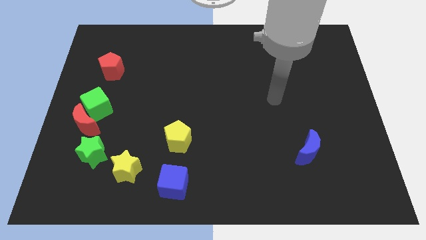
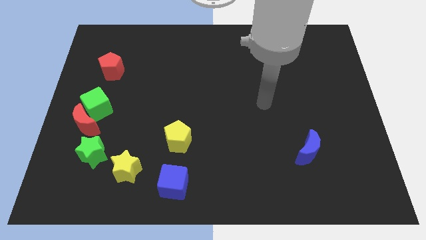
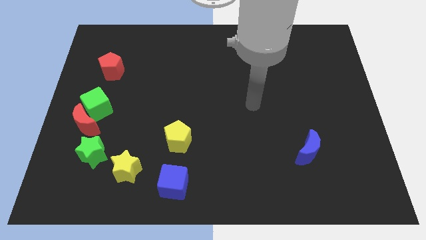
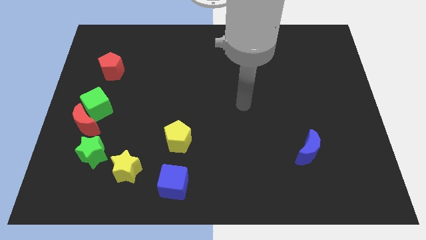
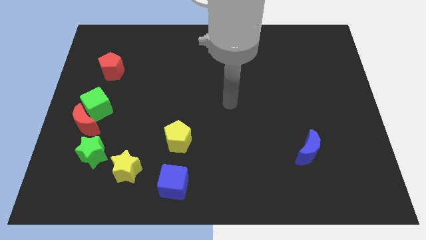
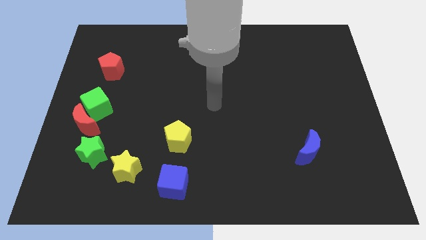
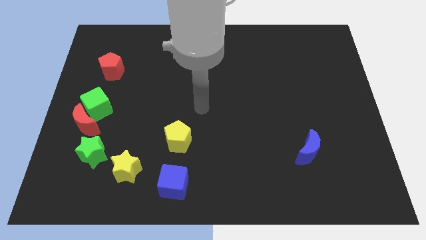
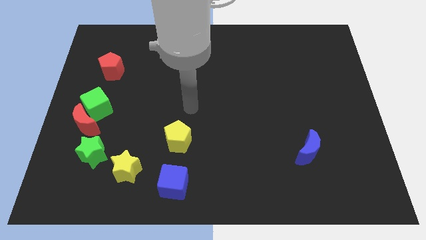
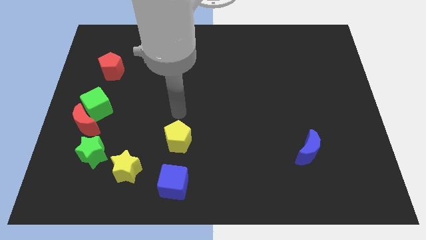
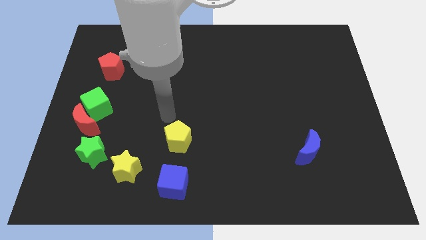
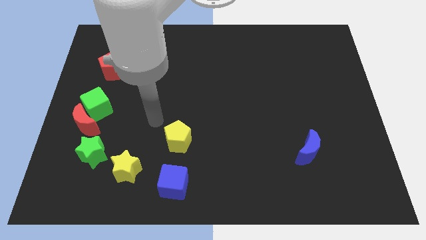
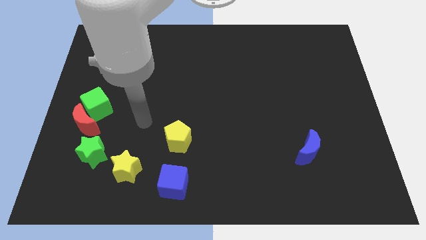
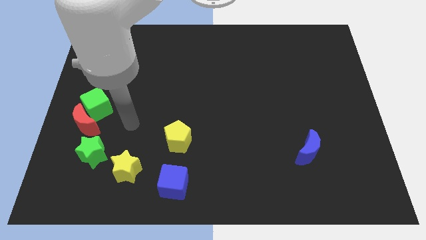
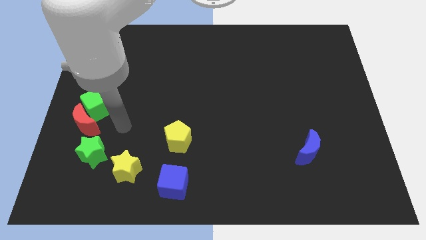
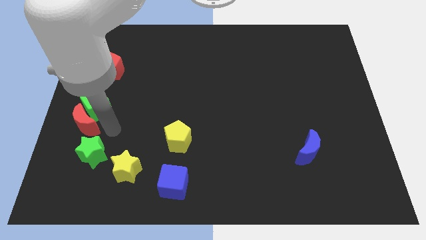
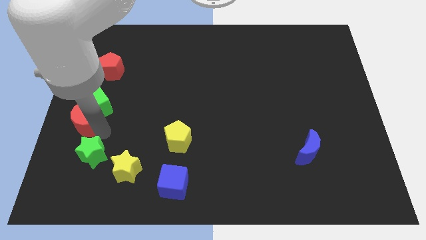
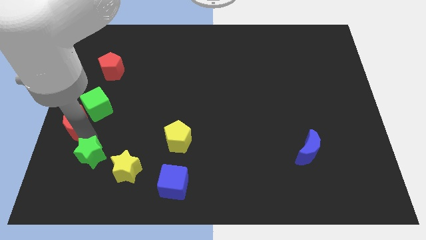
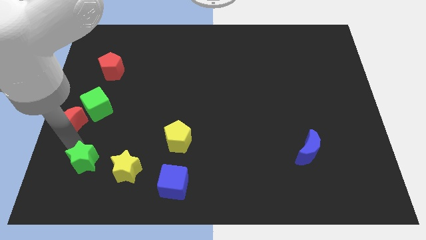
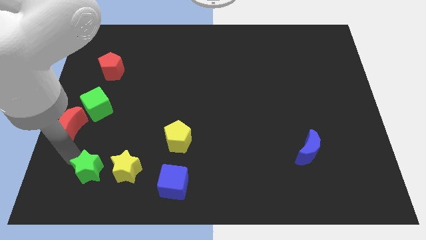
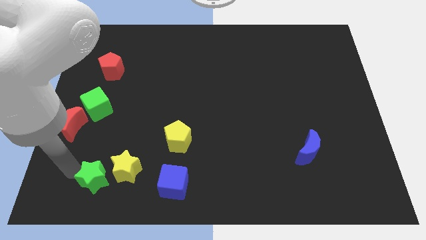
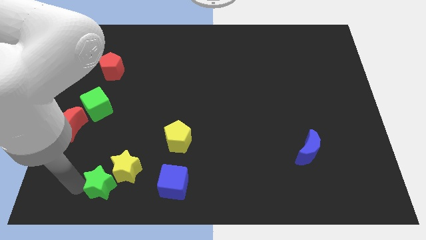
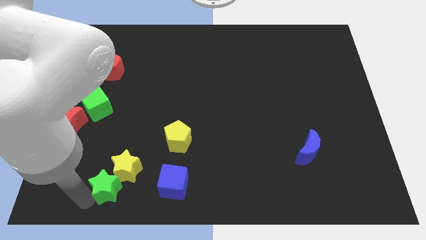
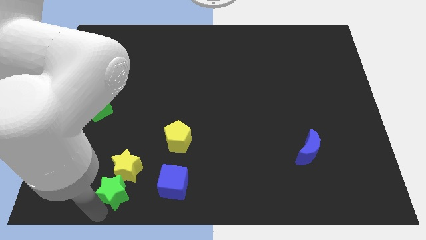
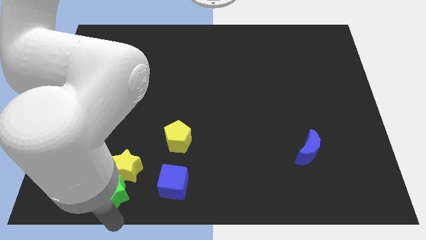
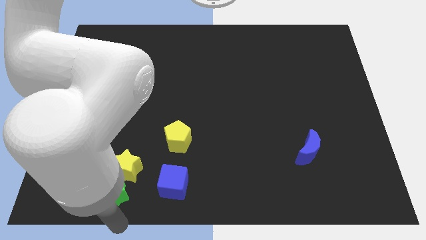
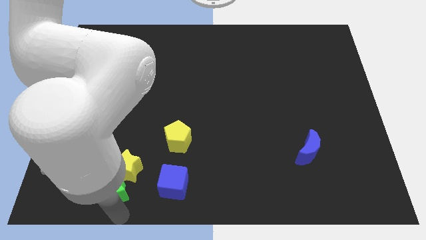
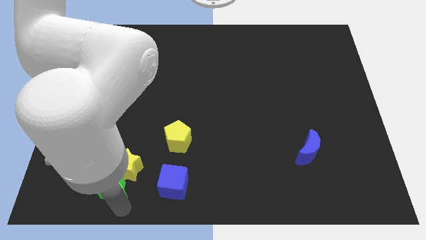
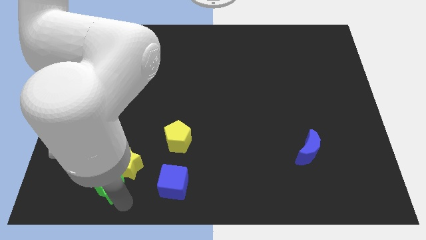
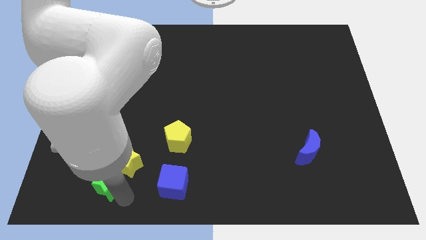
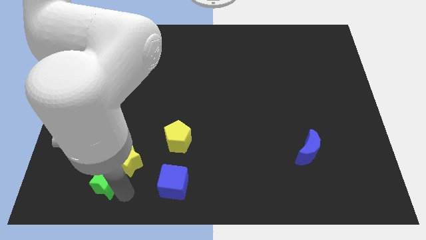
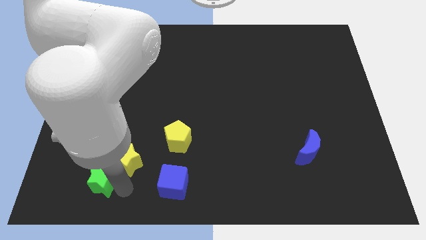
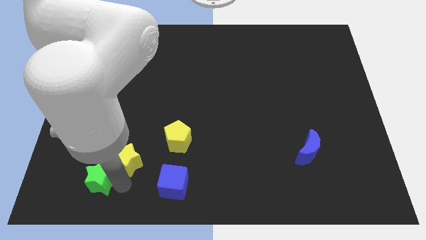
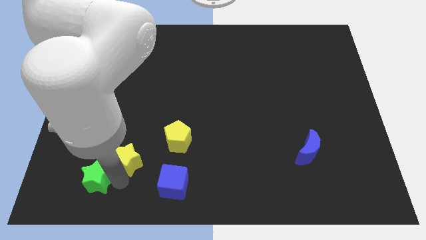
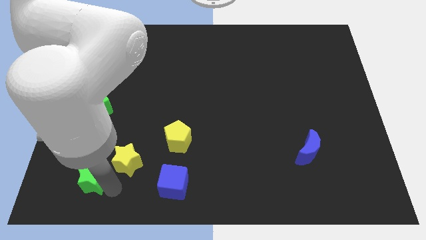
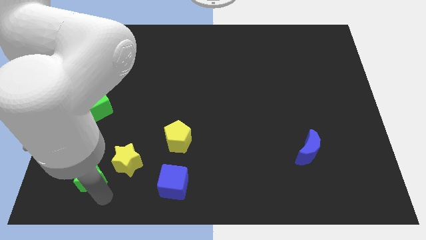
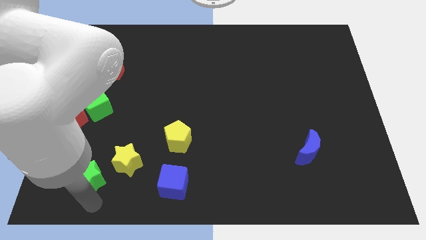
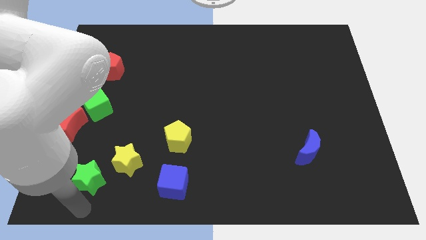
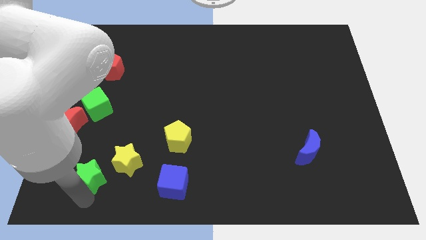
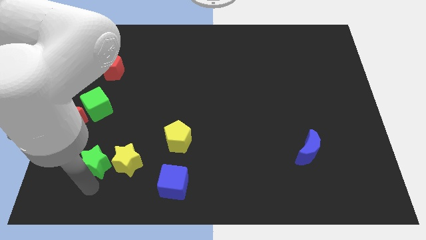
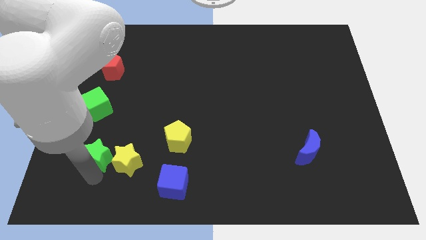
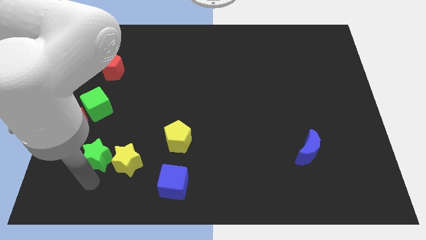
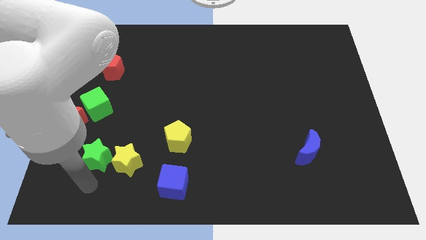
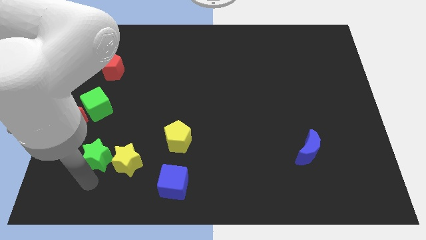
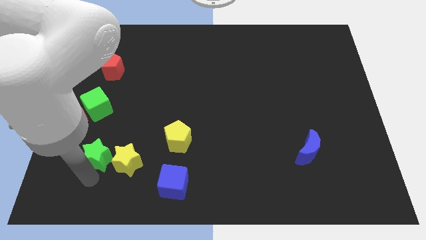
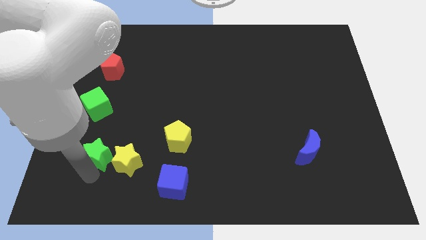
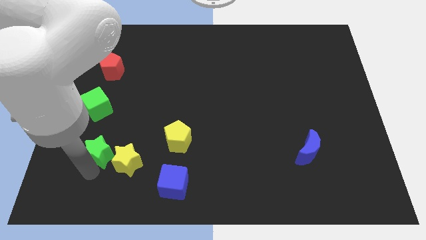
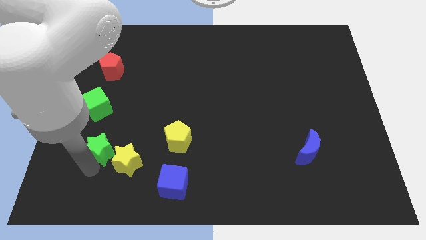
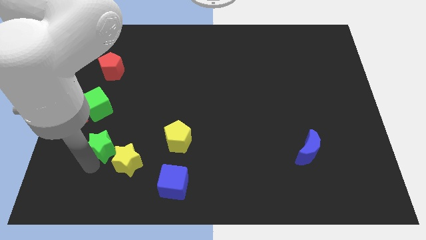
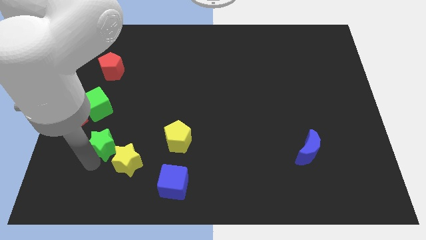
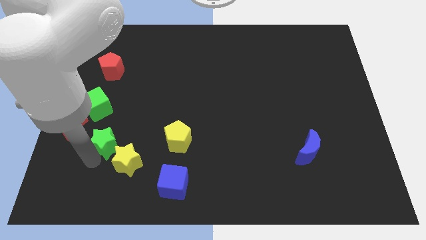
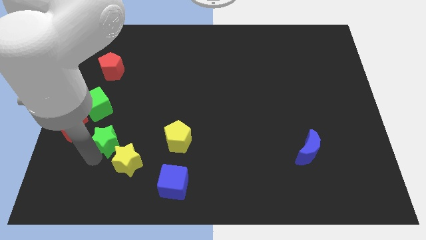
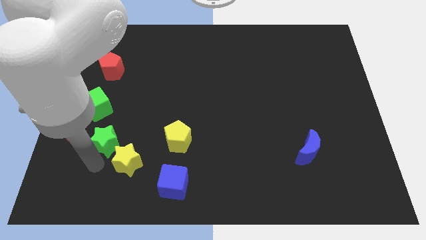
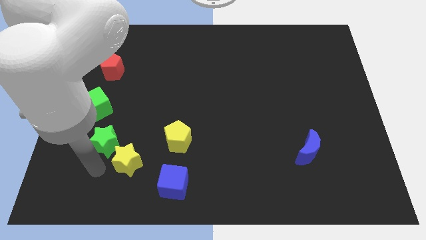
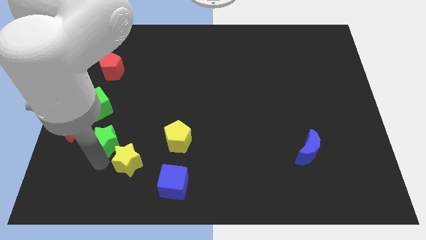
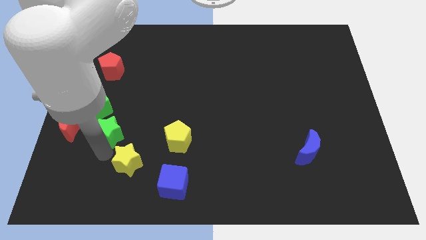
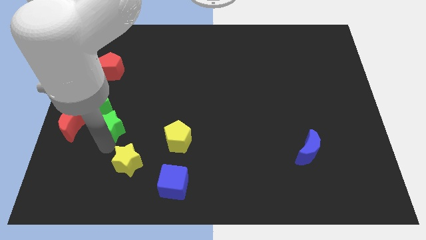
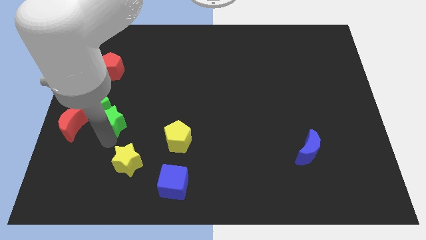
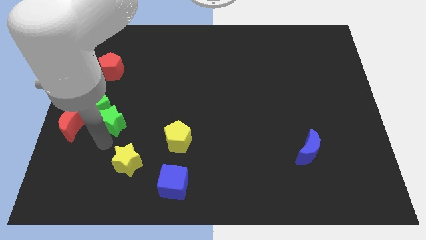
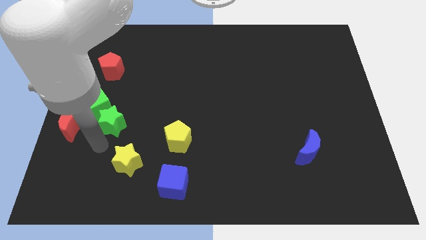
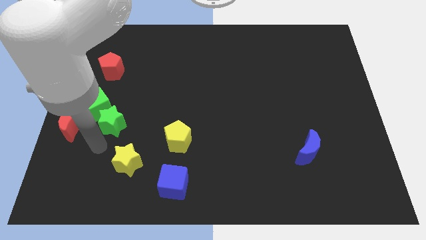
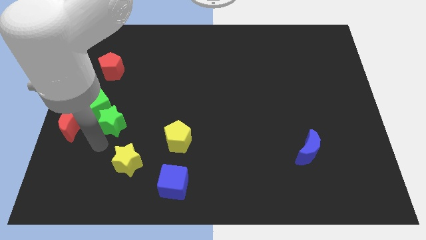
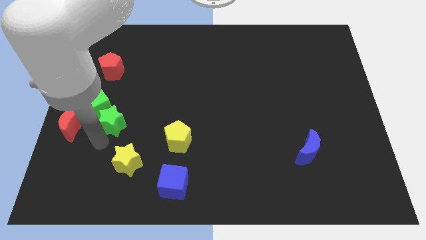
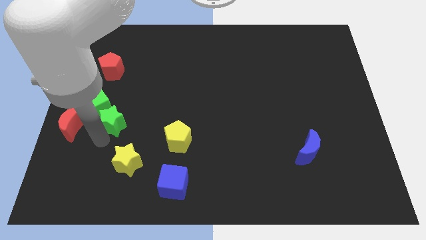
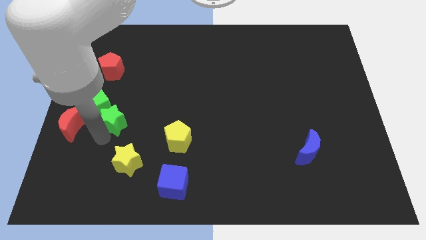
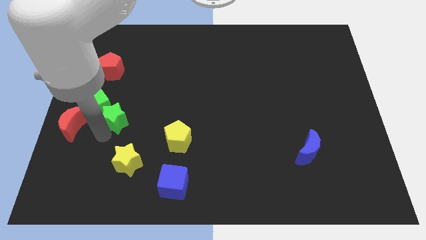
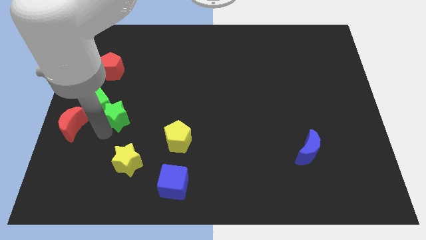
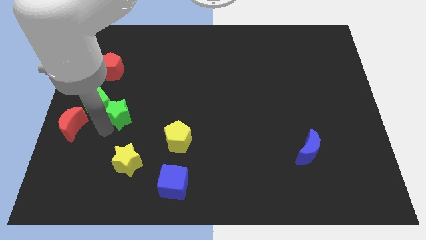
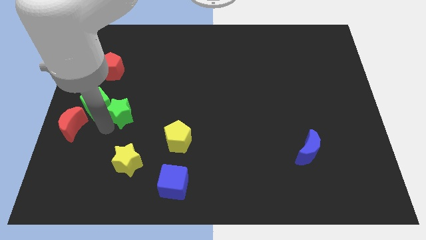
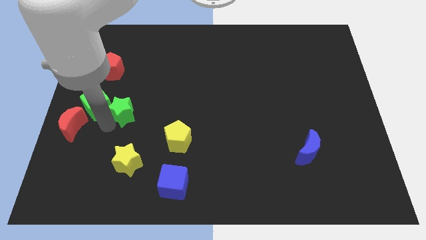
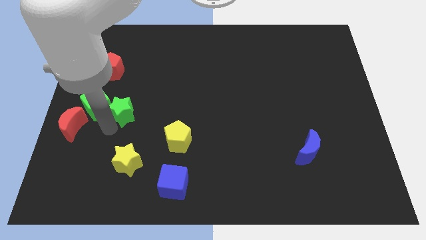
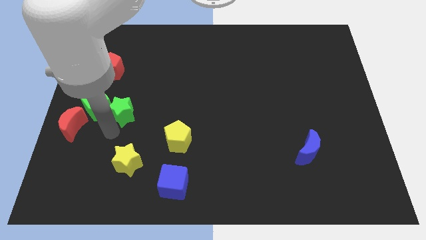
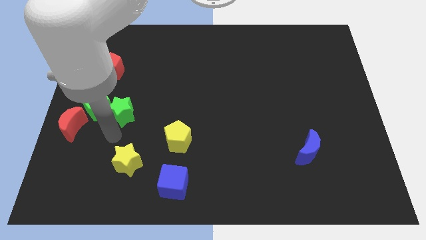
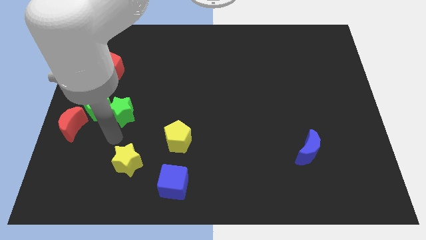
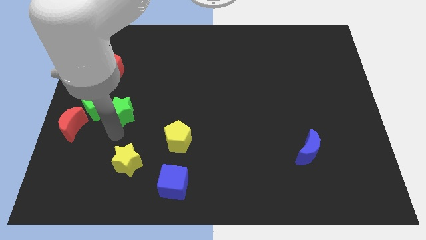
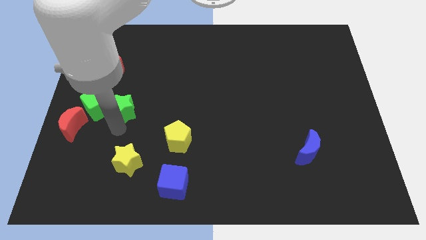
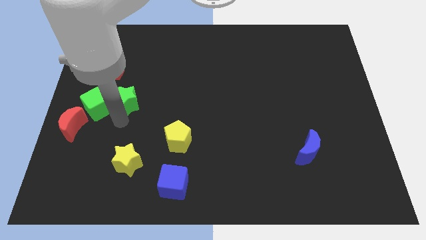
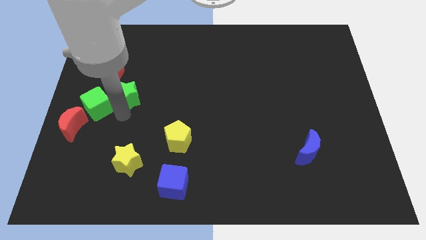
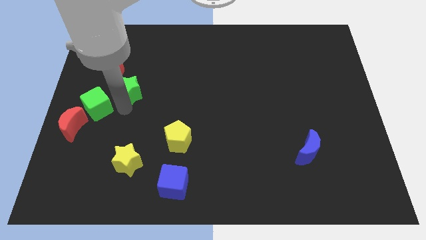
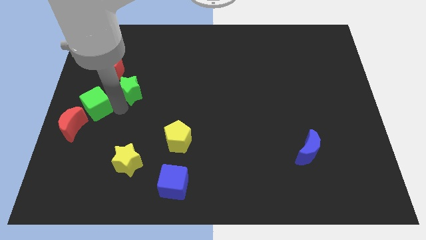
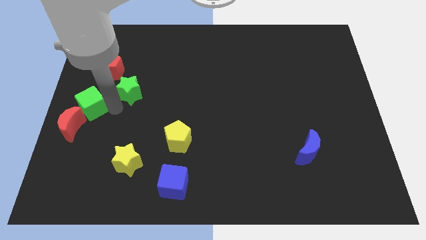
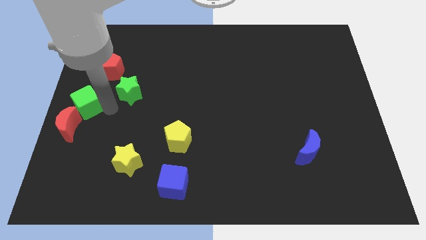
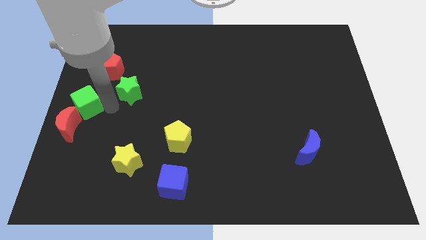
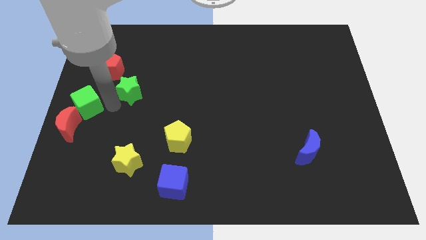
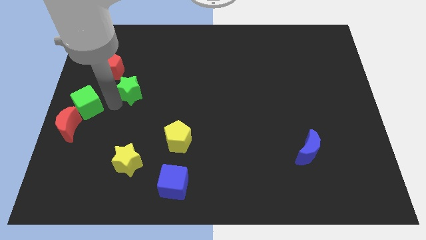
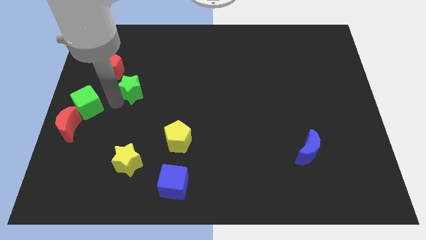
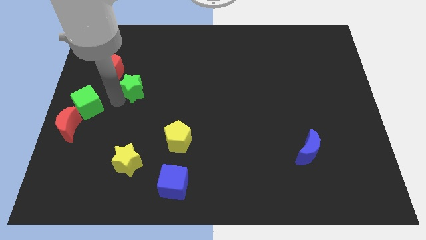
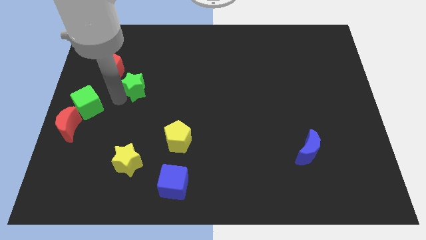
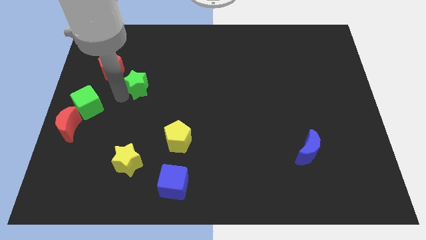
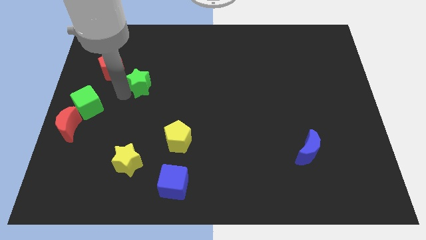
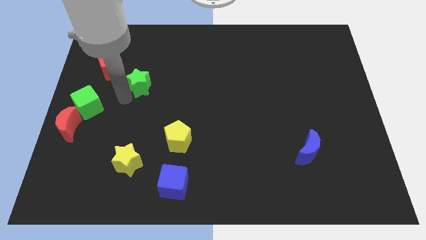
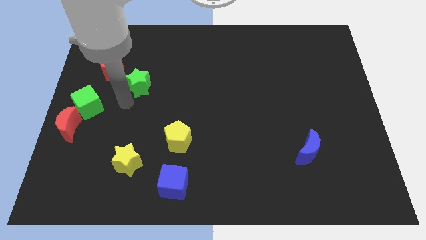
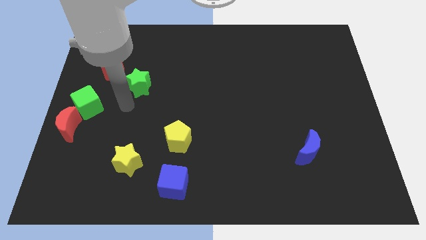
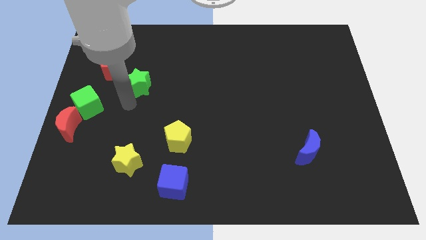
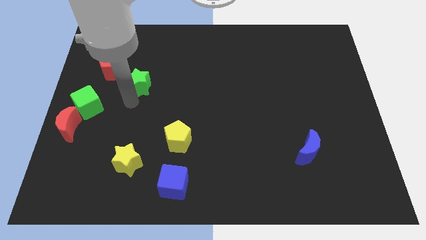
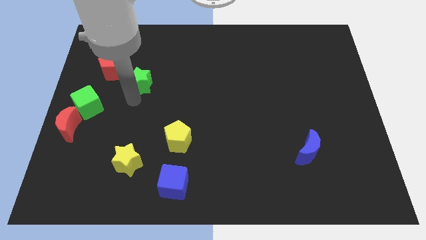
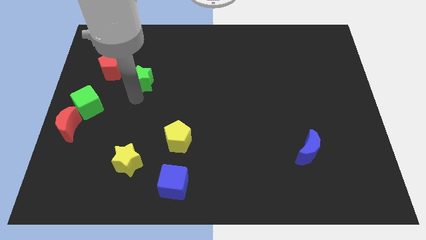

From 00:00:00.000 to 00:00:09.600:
put the green star to the right side of the red pentagon
